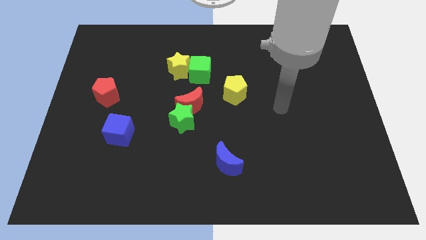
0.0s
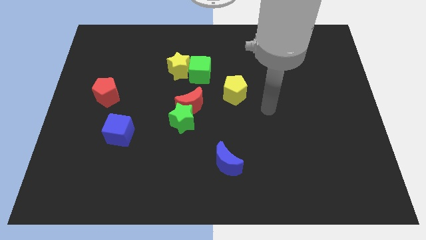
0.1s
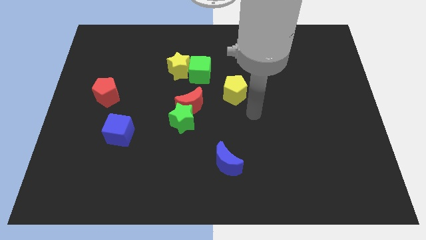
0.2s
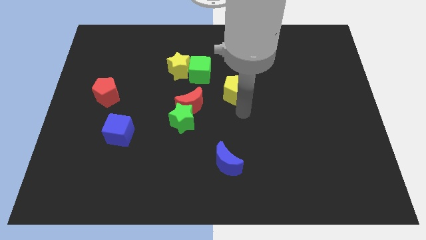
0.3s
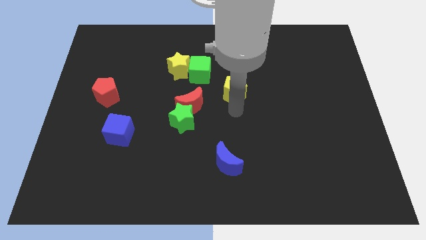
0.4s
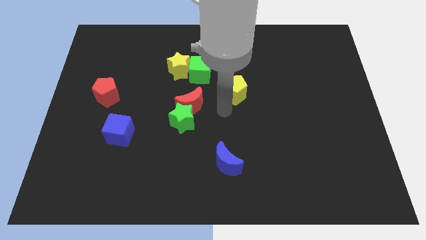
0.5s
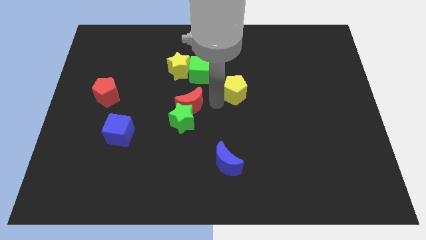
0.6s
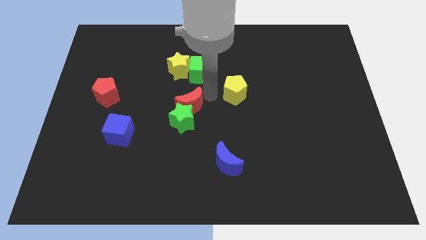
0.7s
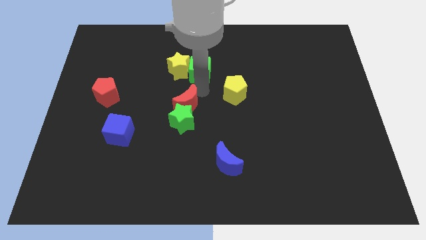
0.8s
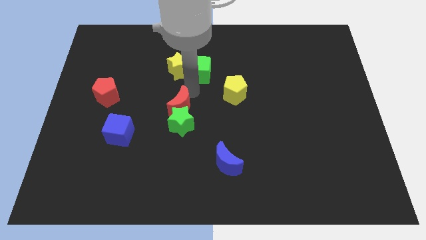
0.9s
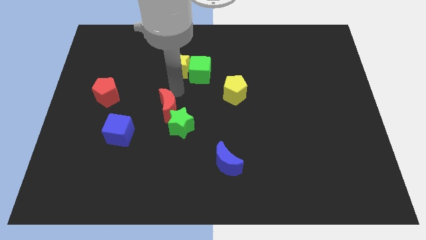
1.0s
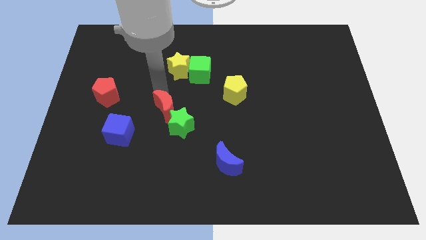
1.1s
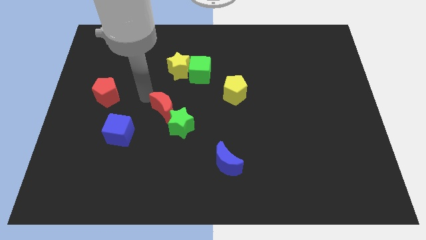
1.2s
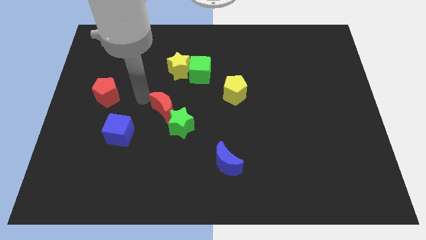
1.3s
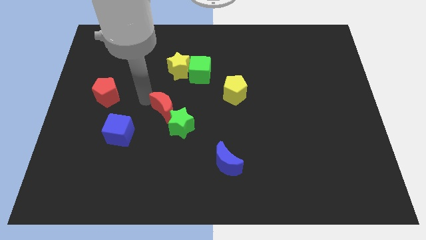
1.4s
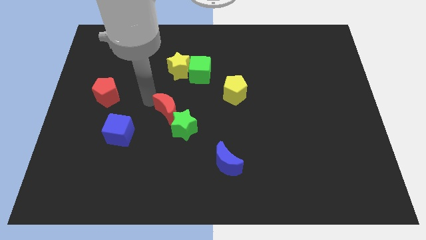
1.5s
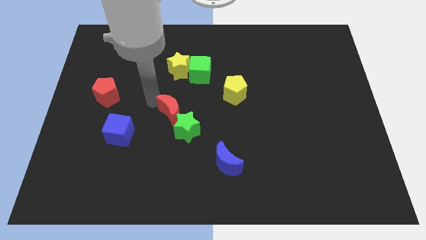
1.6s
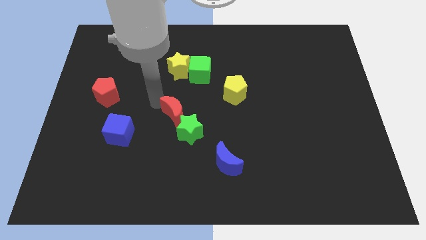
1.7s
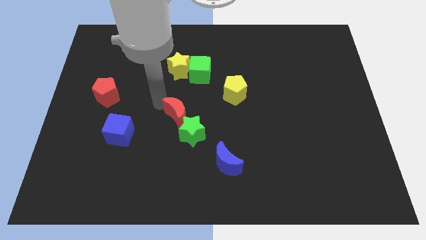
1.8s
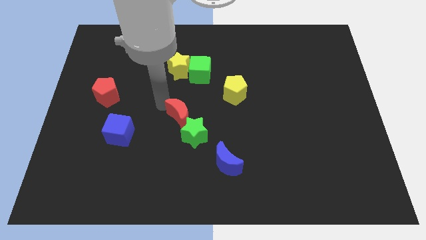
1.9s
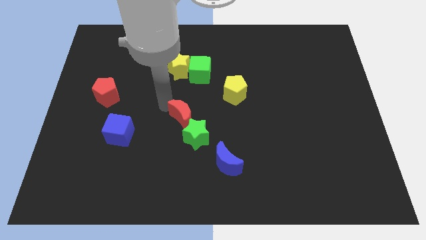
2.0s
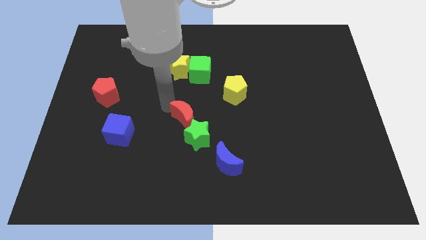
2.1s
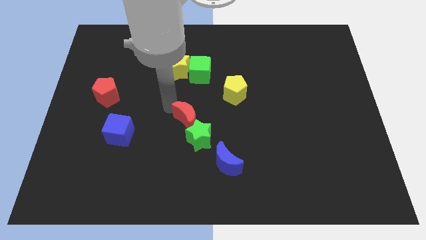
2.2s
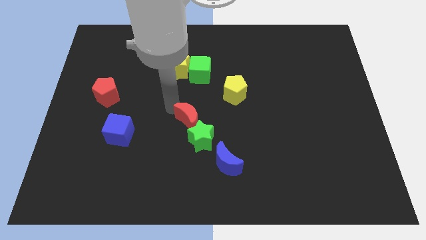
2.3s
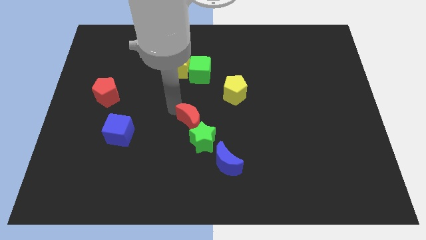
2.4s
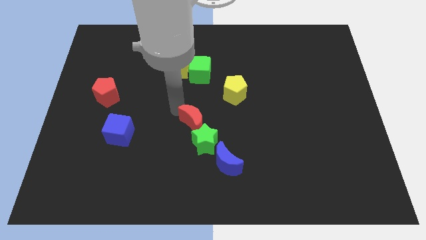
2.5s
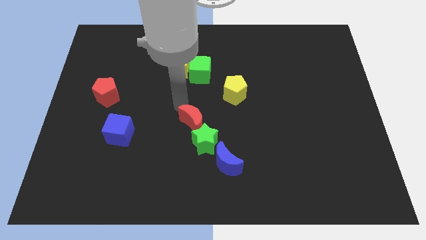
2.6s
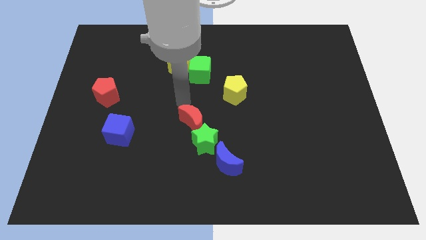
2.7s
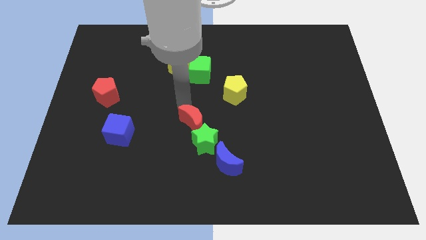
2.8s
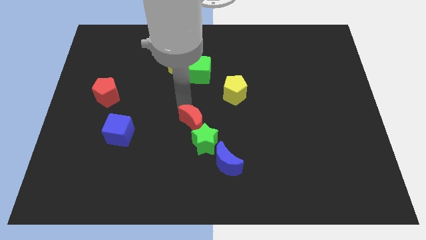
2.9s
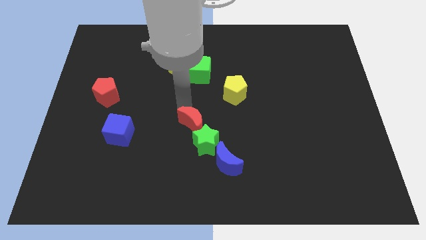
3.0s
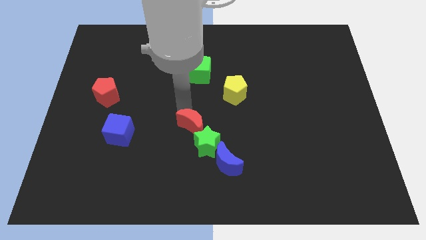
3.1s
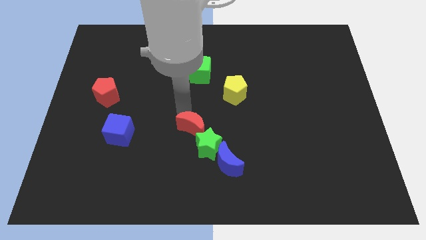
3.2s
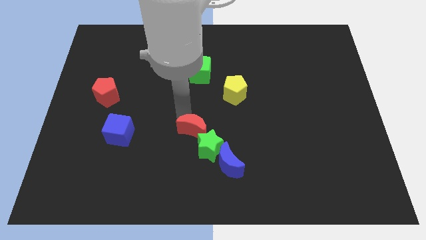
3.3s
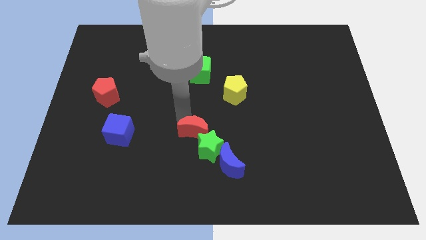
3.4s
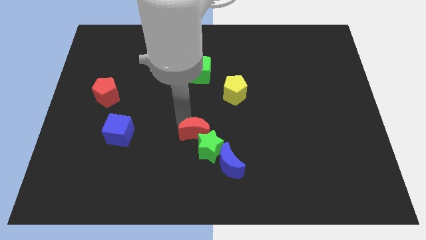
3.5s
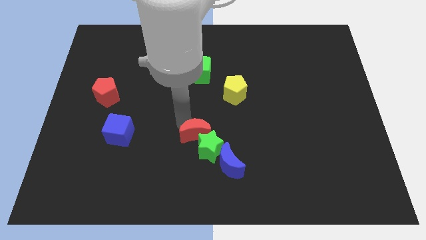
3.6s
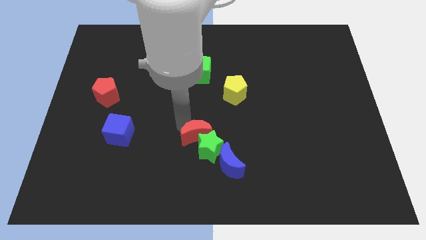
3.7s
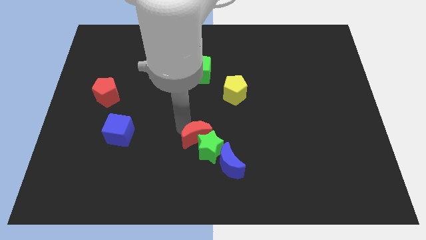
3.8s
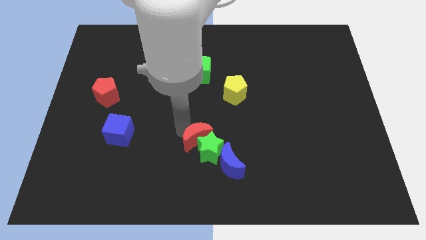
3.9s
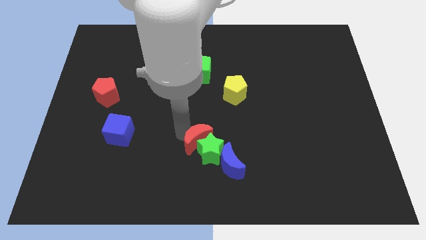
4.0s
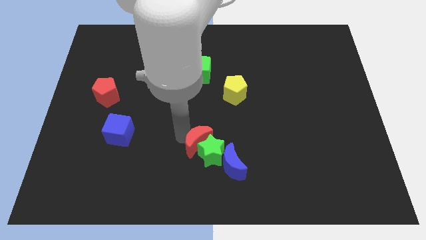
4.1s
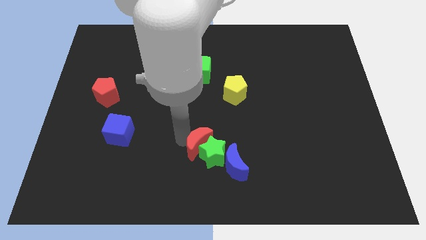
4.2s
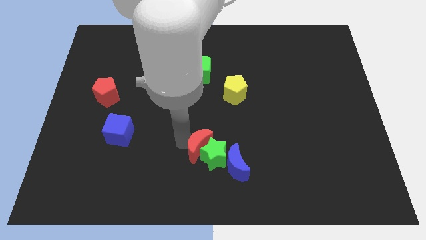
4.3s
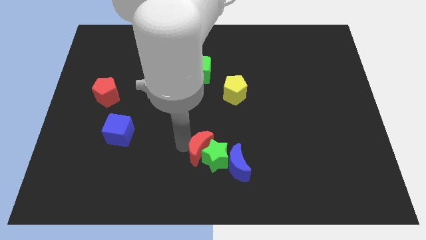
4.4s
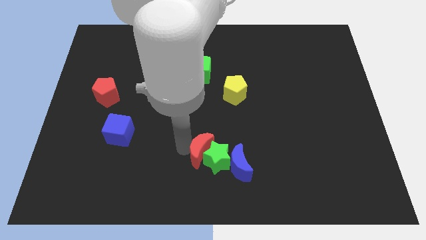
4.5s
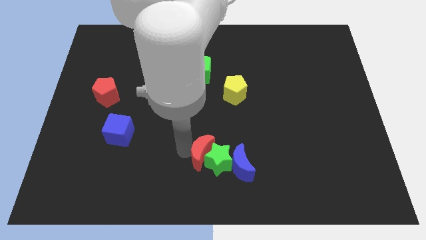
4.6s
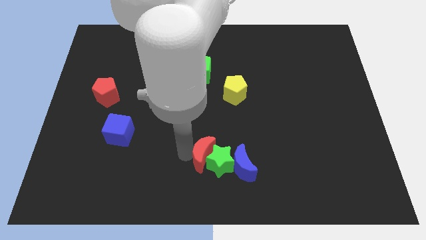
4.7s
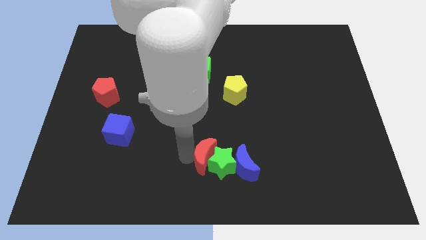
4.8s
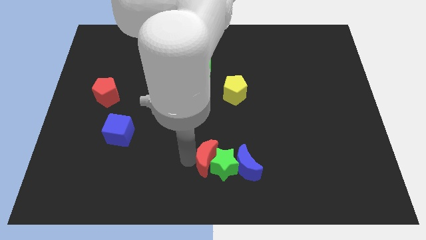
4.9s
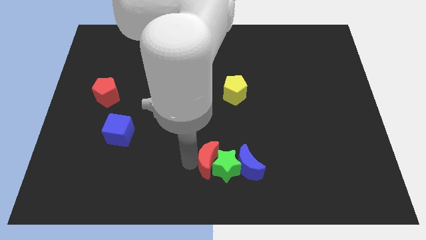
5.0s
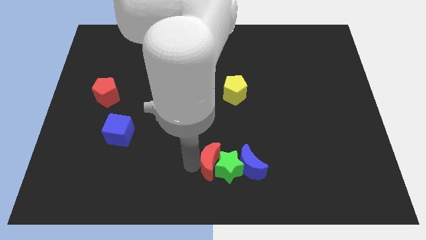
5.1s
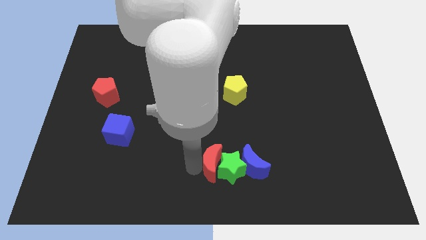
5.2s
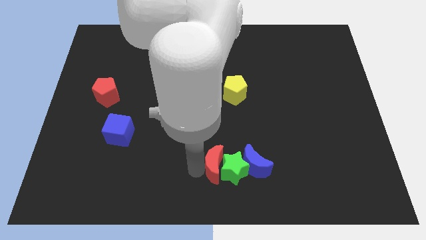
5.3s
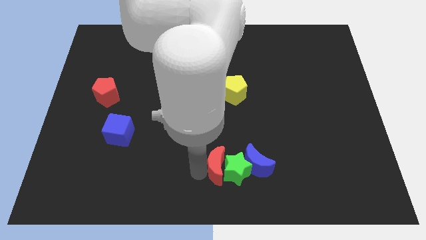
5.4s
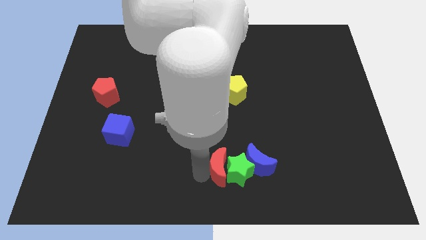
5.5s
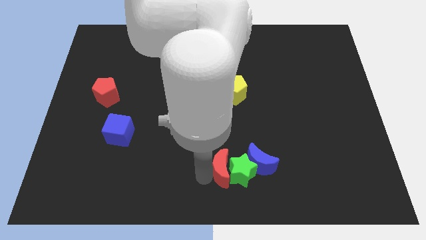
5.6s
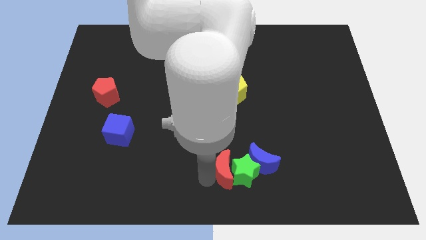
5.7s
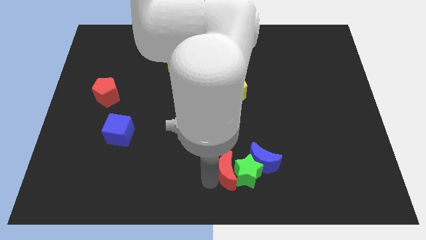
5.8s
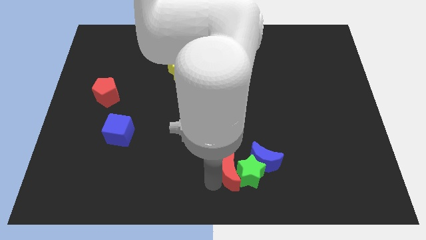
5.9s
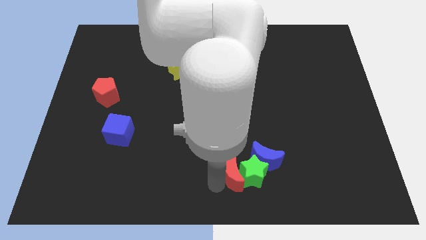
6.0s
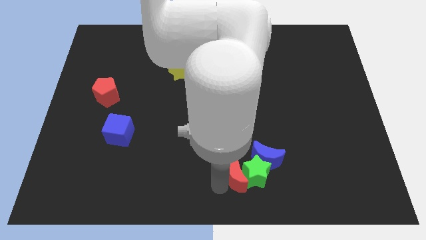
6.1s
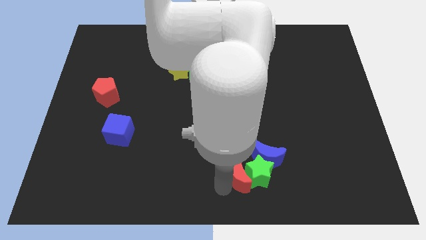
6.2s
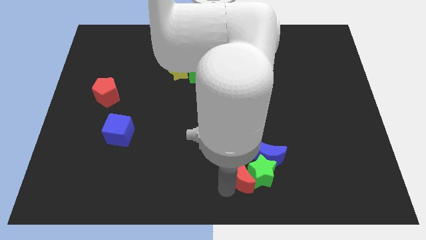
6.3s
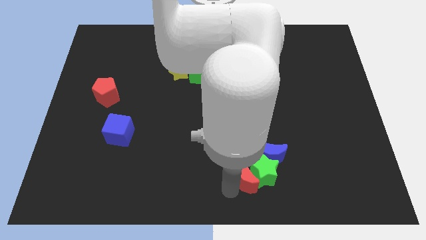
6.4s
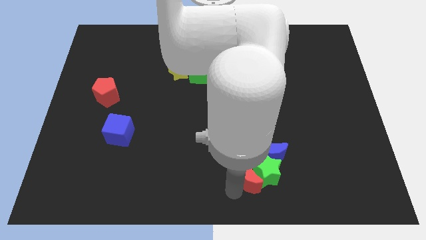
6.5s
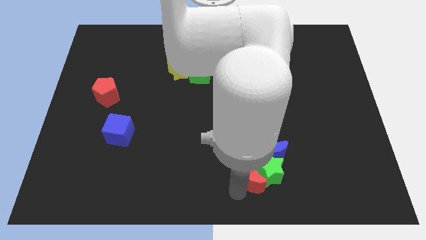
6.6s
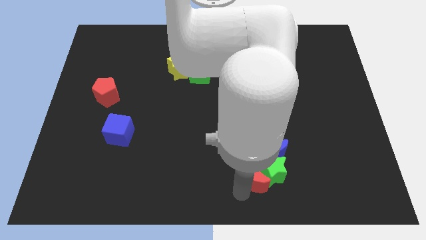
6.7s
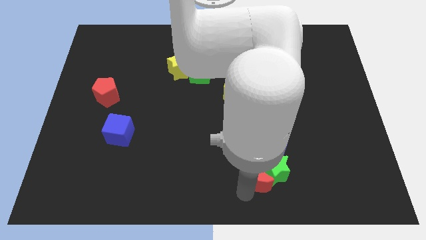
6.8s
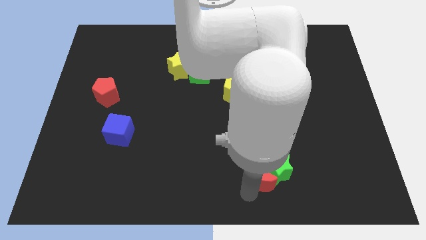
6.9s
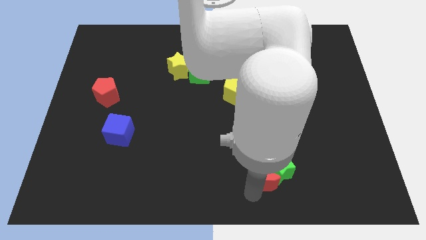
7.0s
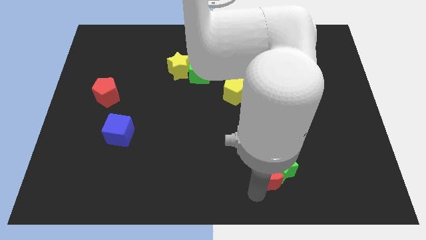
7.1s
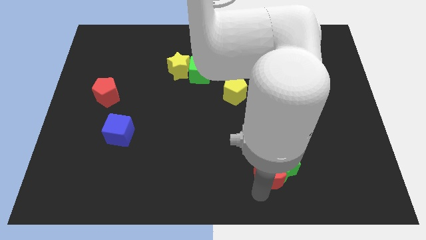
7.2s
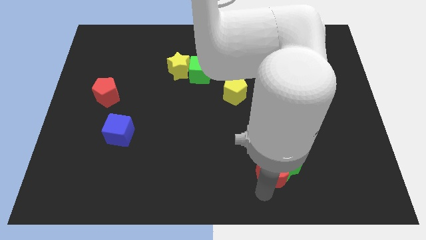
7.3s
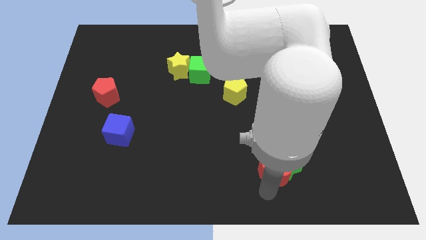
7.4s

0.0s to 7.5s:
move the red moon to the blue moon
